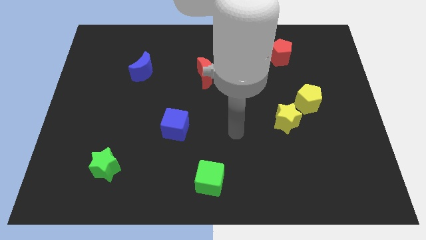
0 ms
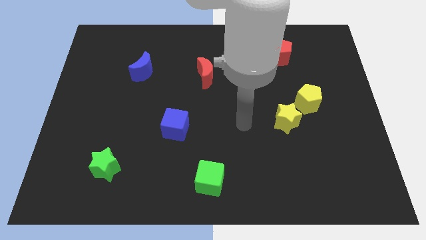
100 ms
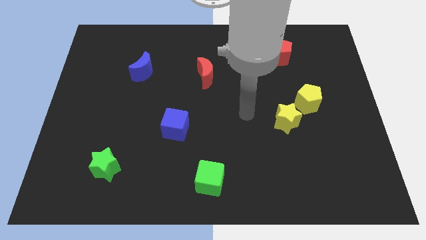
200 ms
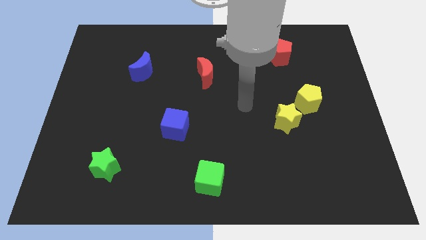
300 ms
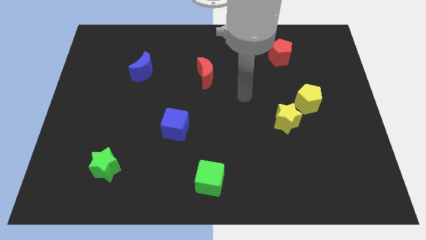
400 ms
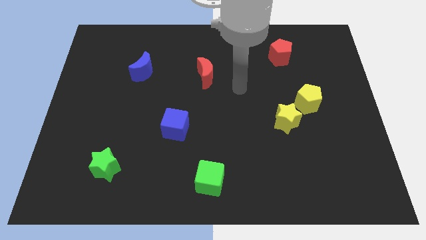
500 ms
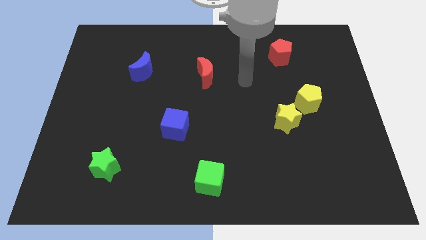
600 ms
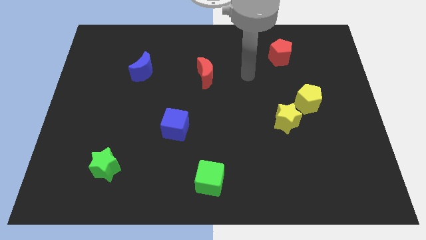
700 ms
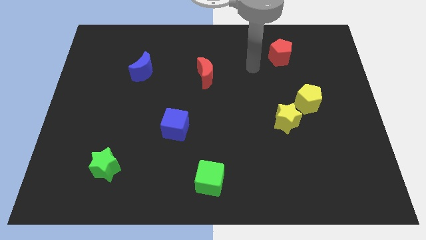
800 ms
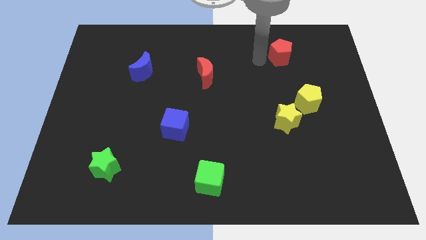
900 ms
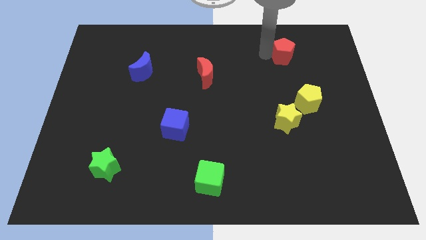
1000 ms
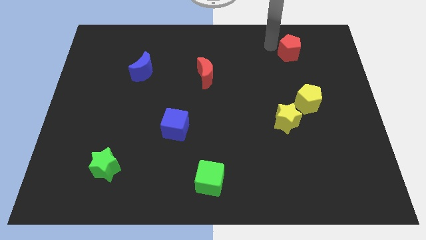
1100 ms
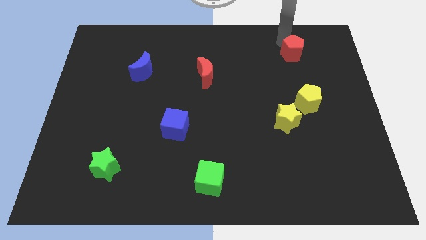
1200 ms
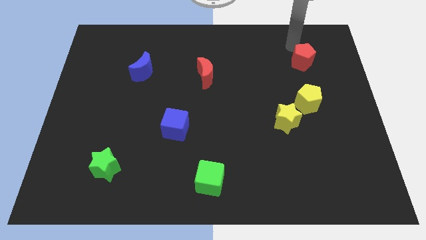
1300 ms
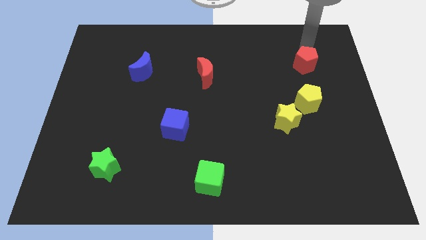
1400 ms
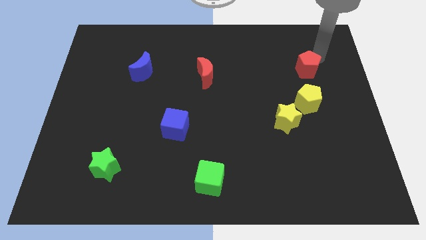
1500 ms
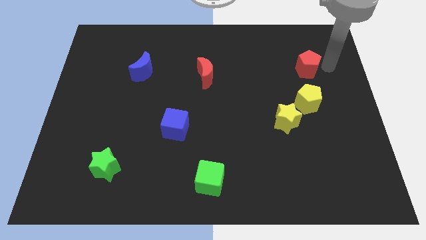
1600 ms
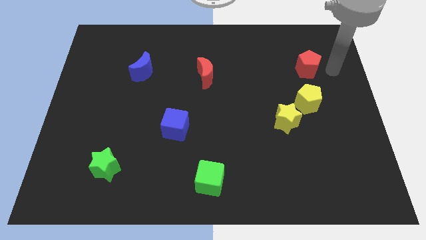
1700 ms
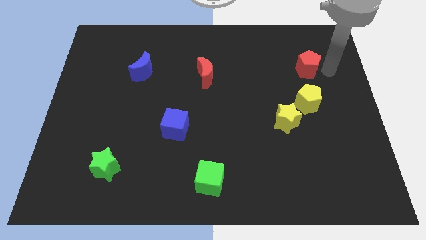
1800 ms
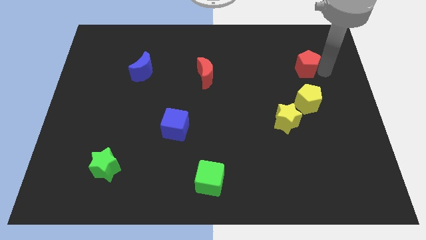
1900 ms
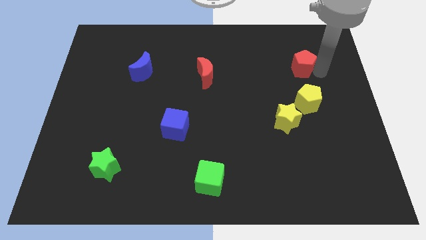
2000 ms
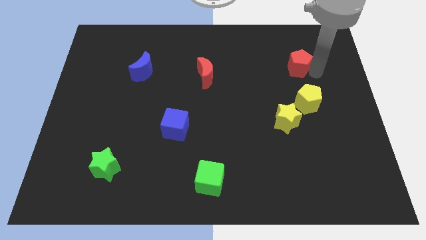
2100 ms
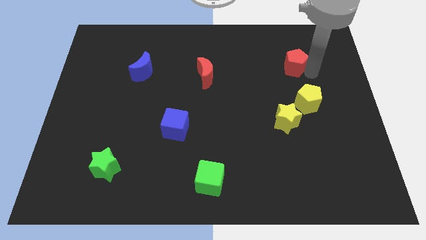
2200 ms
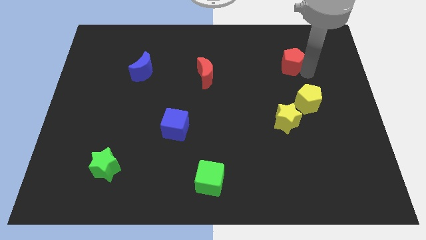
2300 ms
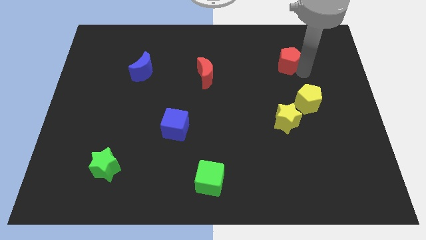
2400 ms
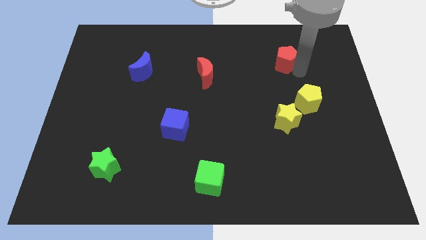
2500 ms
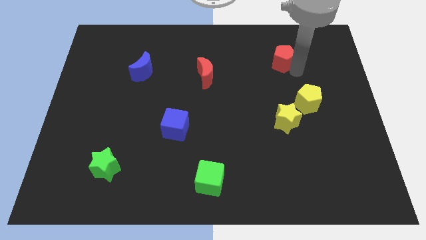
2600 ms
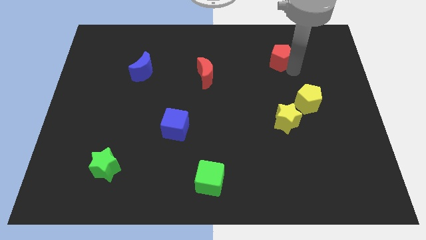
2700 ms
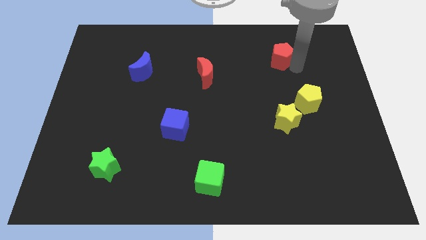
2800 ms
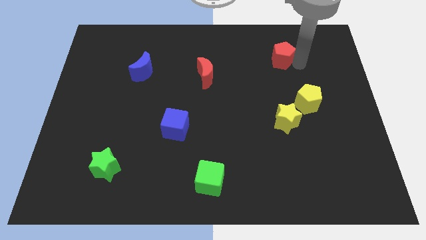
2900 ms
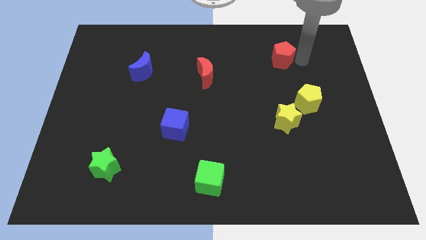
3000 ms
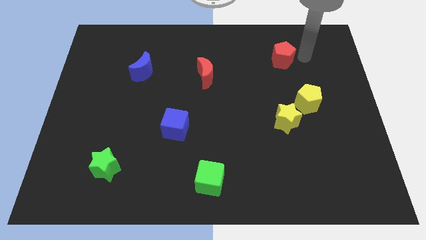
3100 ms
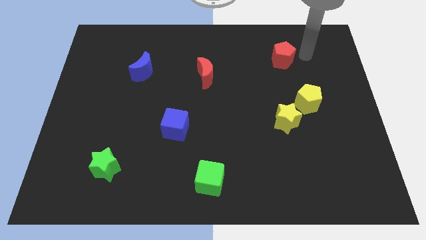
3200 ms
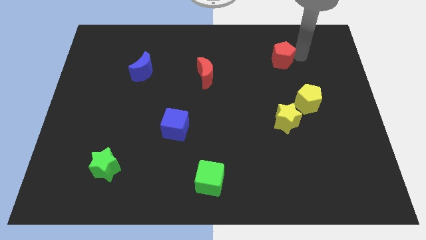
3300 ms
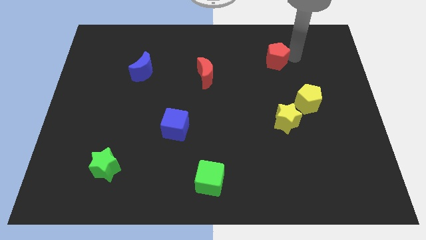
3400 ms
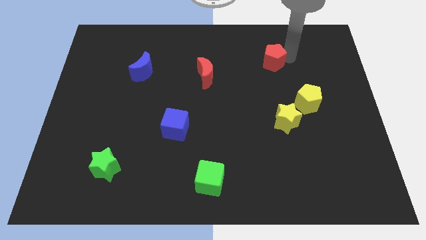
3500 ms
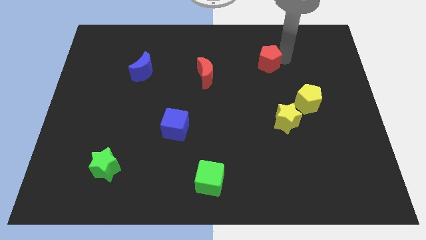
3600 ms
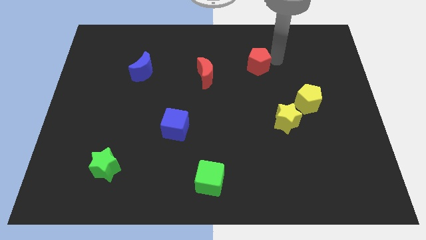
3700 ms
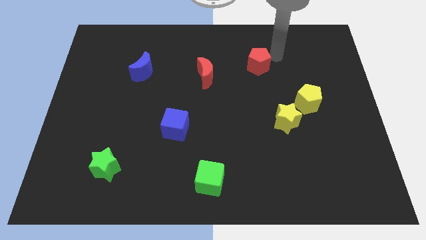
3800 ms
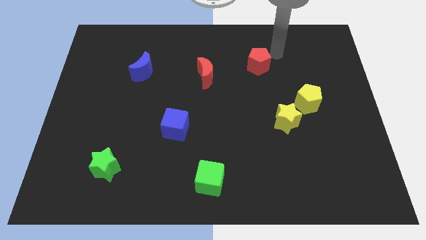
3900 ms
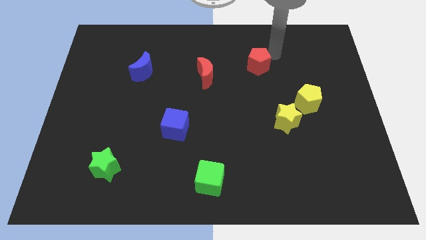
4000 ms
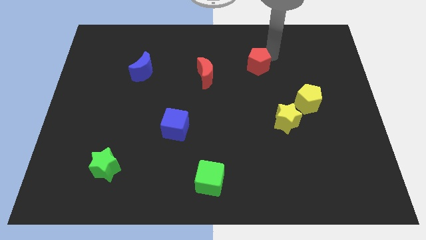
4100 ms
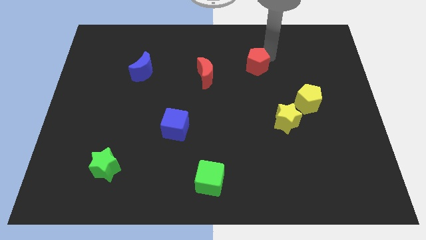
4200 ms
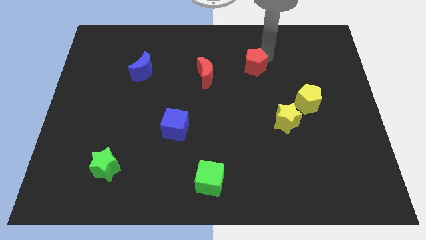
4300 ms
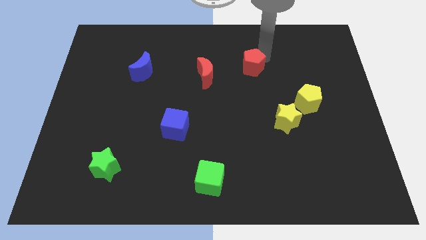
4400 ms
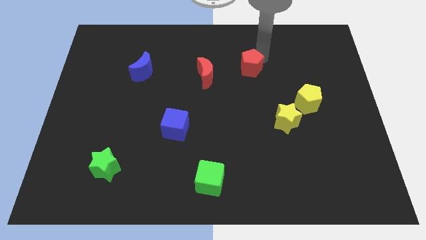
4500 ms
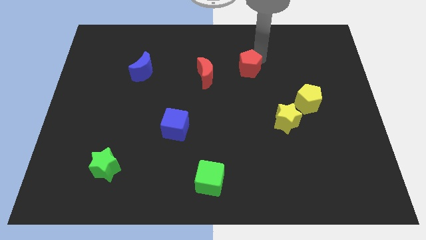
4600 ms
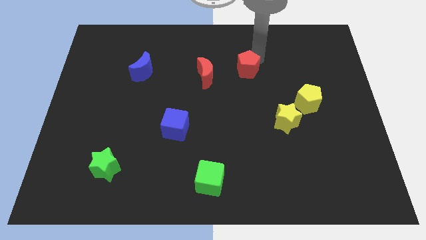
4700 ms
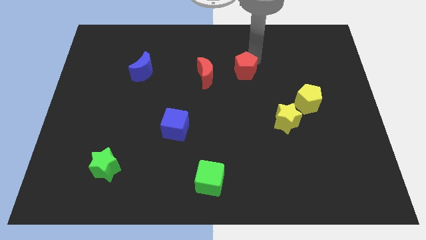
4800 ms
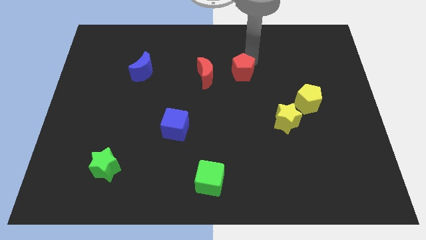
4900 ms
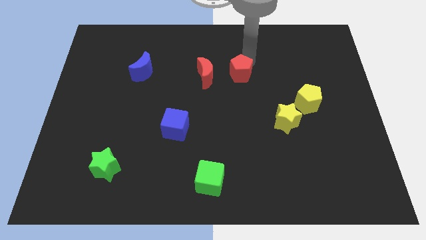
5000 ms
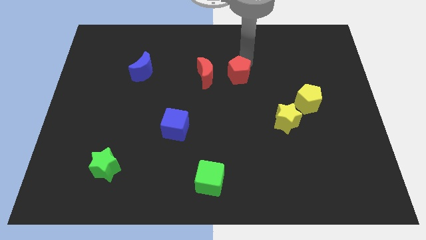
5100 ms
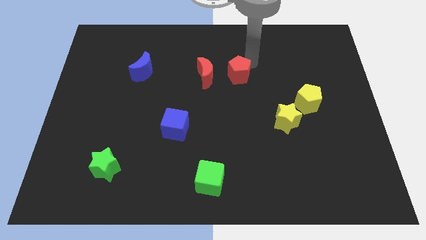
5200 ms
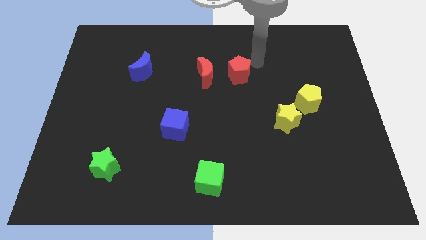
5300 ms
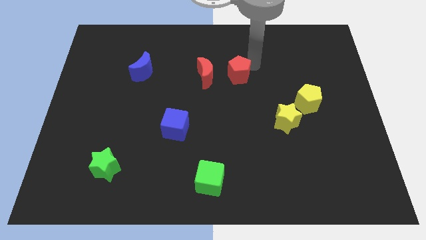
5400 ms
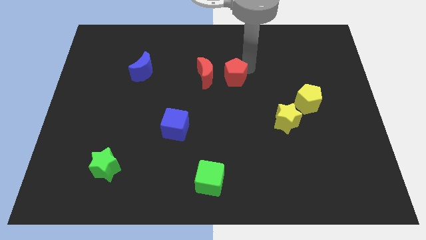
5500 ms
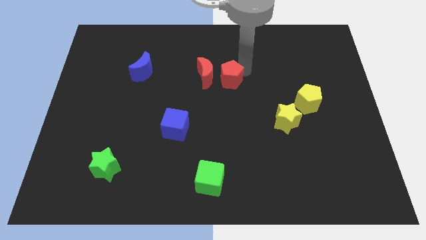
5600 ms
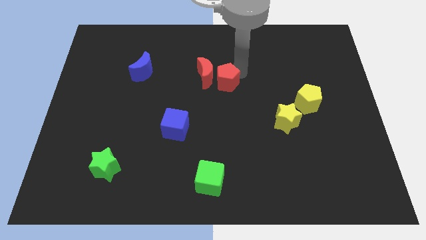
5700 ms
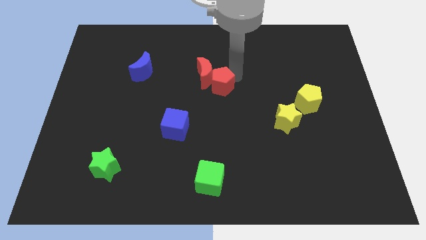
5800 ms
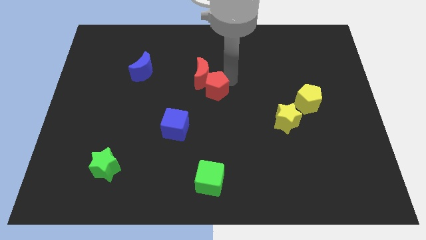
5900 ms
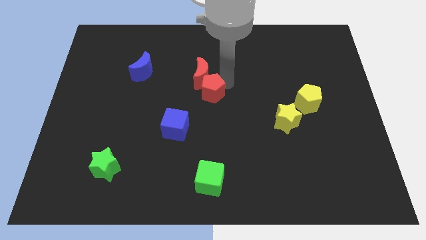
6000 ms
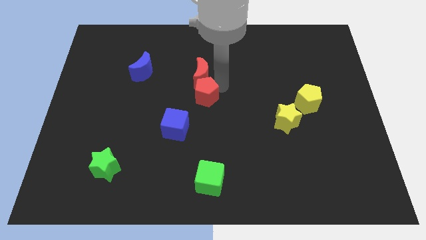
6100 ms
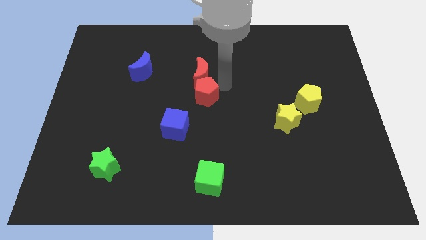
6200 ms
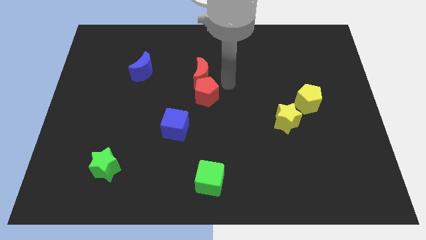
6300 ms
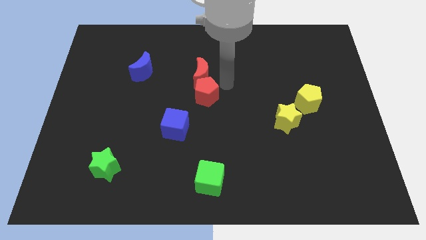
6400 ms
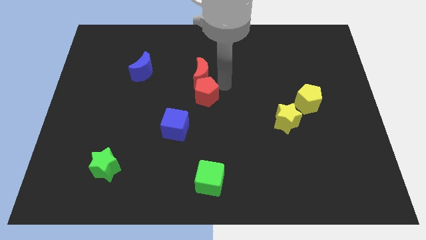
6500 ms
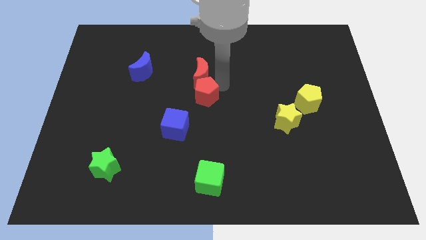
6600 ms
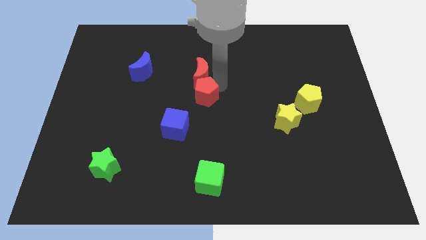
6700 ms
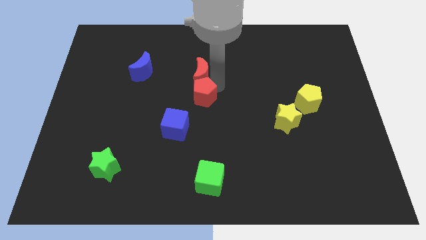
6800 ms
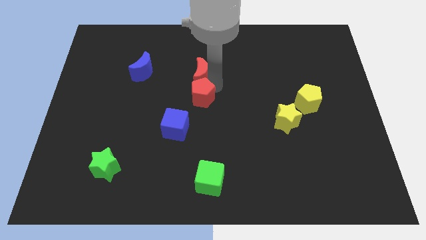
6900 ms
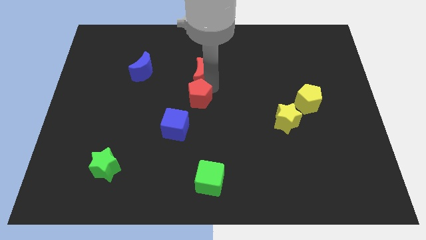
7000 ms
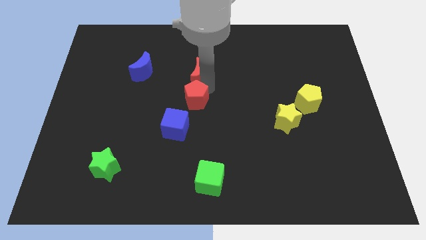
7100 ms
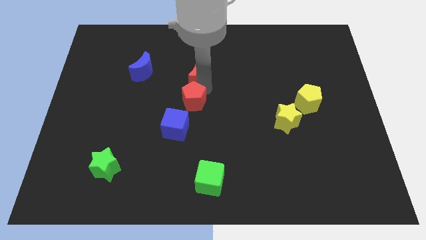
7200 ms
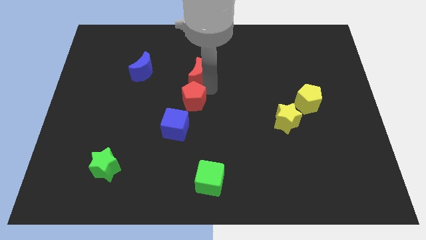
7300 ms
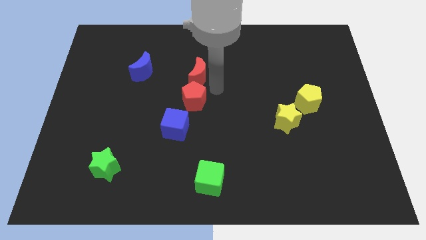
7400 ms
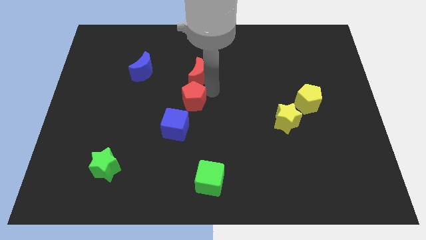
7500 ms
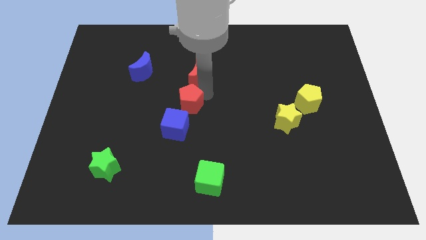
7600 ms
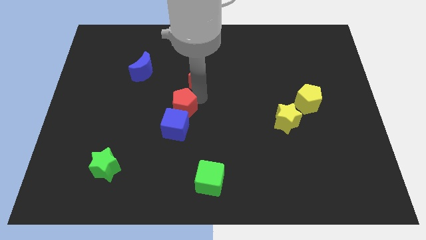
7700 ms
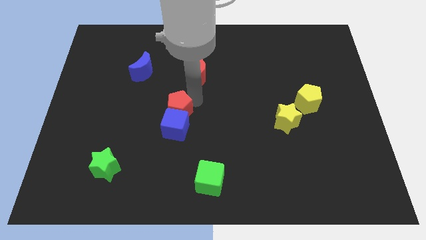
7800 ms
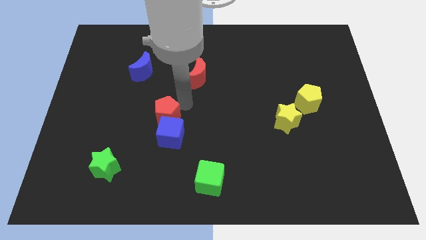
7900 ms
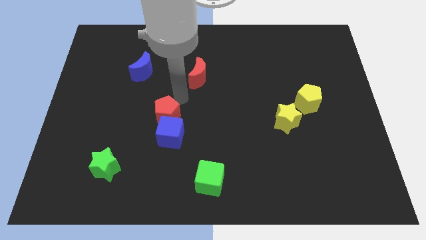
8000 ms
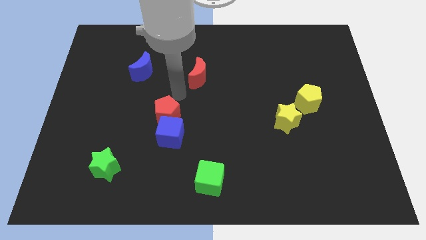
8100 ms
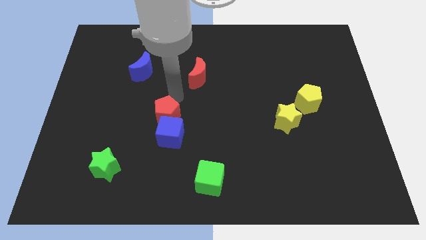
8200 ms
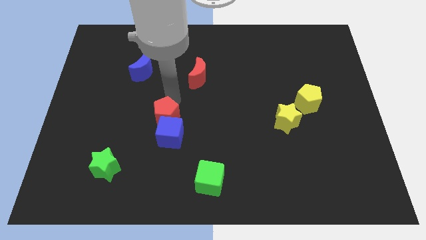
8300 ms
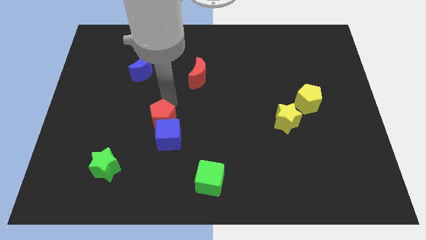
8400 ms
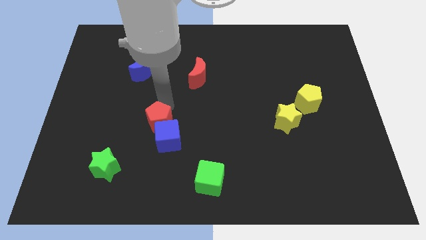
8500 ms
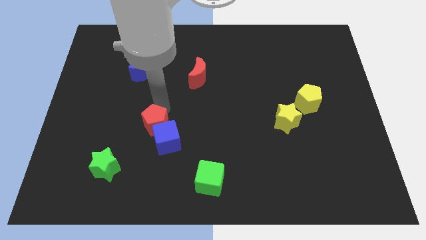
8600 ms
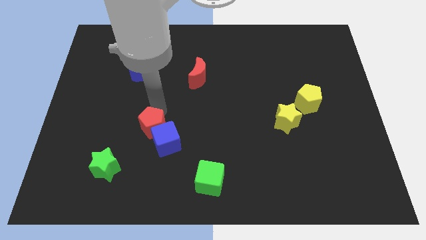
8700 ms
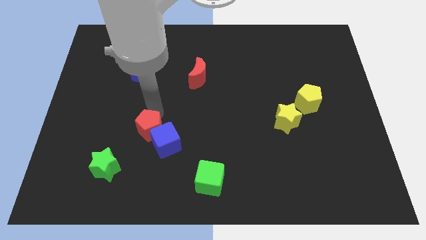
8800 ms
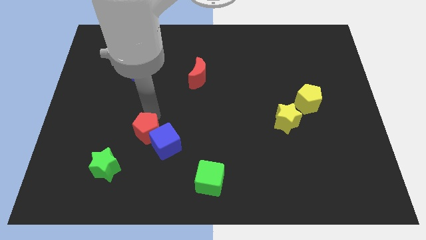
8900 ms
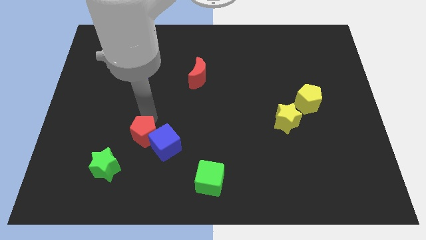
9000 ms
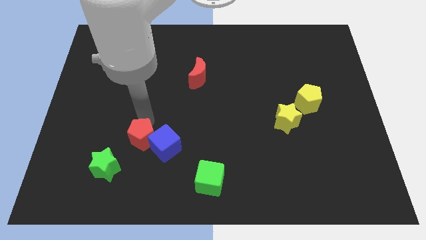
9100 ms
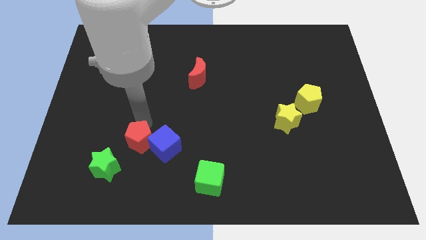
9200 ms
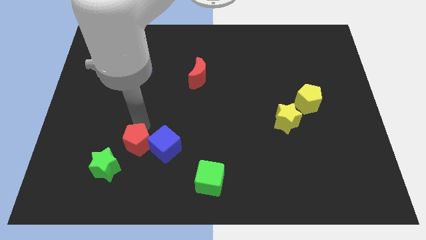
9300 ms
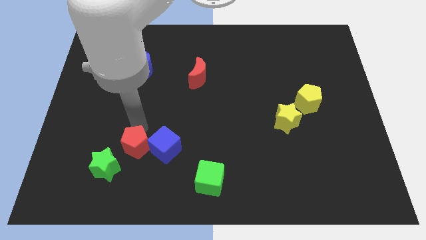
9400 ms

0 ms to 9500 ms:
push the red pentagon to the bottom left of the blue cube
